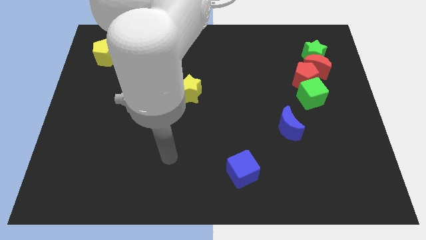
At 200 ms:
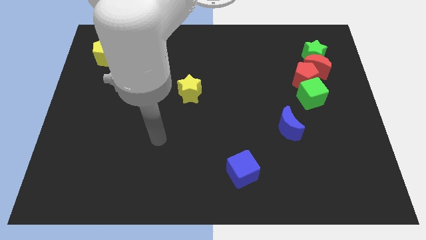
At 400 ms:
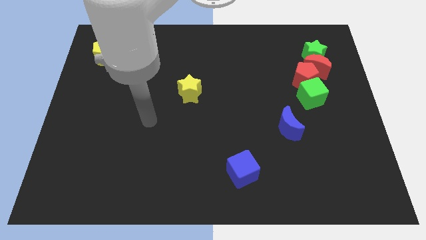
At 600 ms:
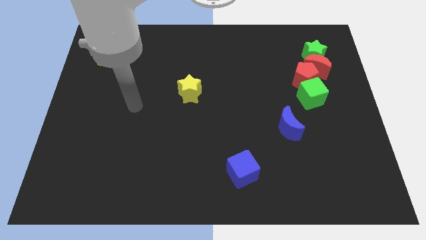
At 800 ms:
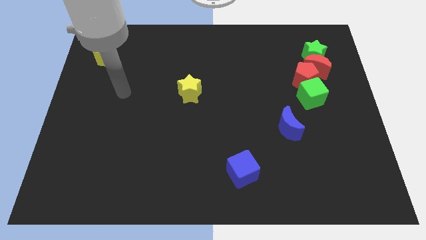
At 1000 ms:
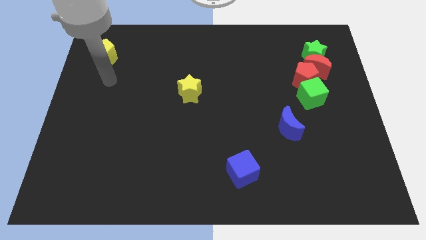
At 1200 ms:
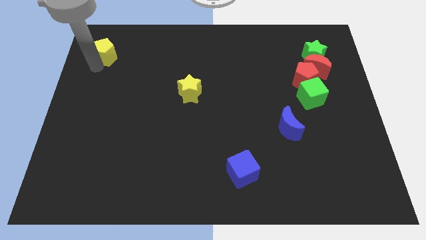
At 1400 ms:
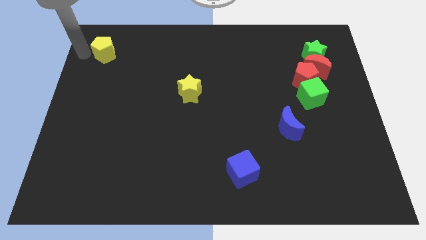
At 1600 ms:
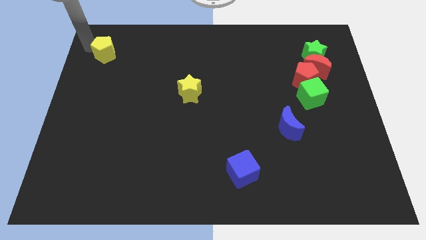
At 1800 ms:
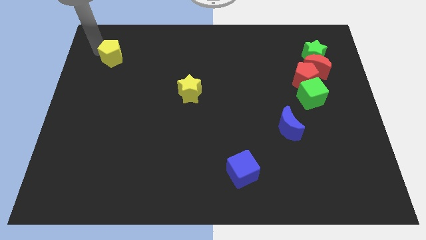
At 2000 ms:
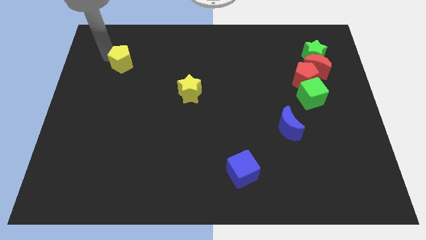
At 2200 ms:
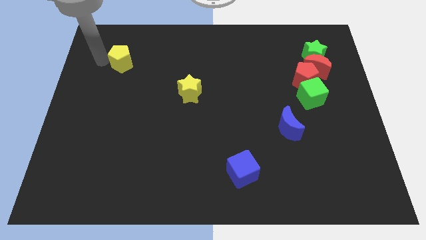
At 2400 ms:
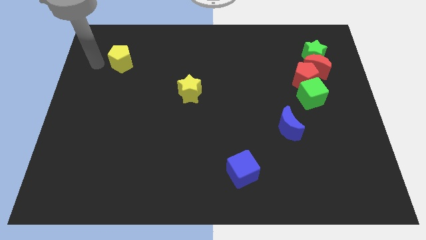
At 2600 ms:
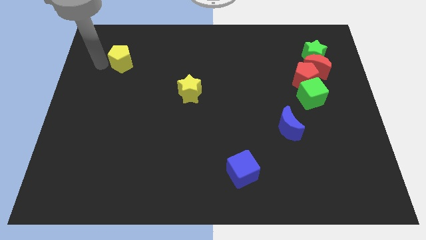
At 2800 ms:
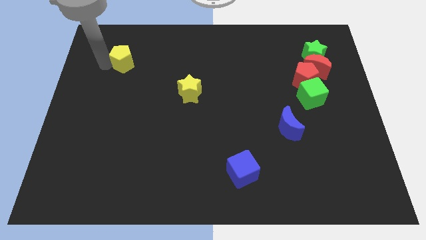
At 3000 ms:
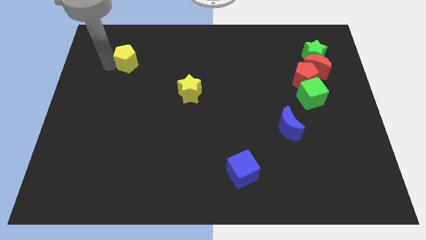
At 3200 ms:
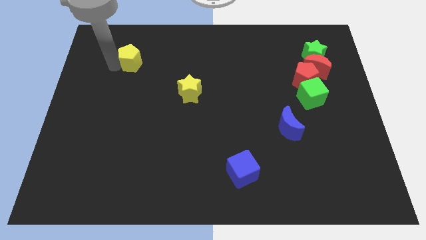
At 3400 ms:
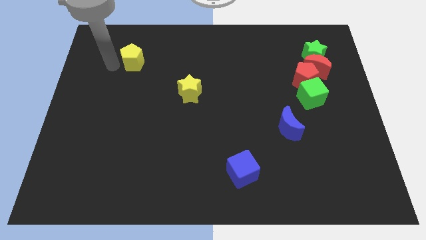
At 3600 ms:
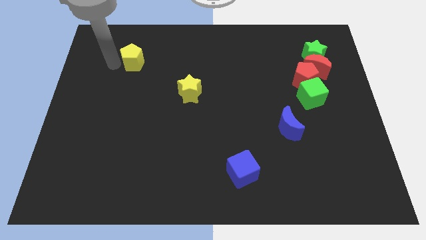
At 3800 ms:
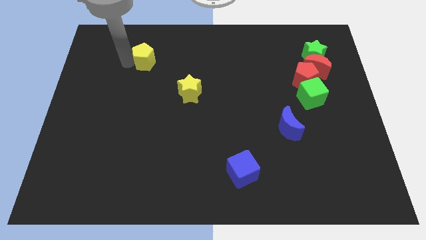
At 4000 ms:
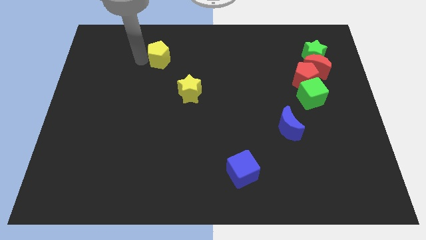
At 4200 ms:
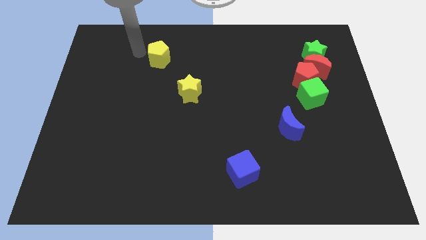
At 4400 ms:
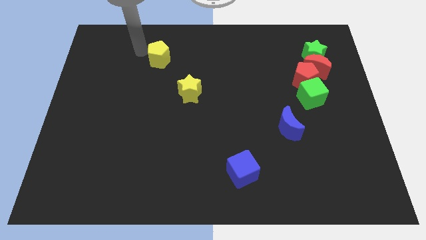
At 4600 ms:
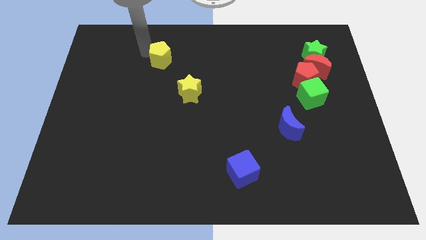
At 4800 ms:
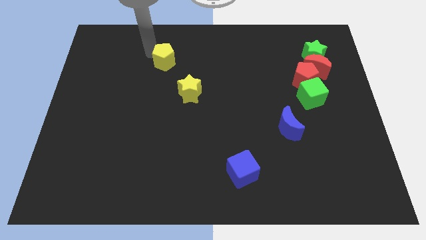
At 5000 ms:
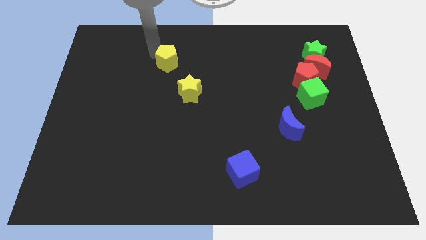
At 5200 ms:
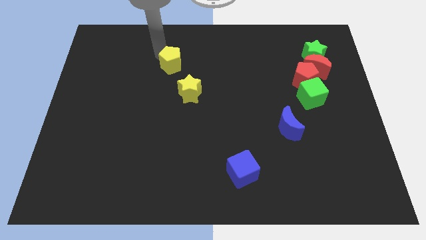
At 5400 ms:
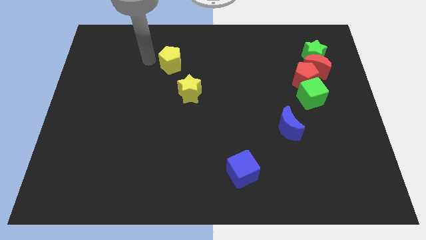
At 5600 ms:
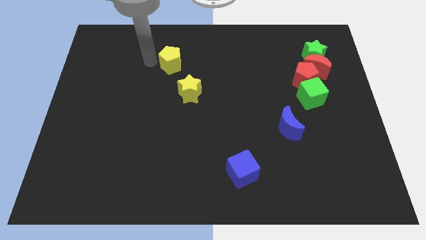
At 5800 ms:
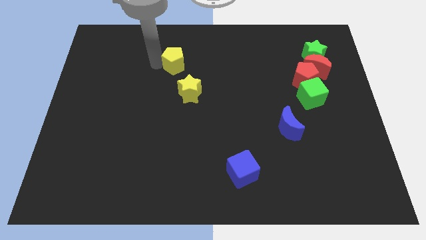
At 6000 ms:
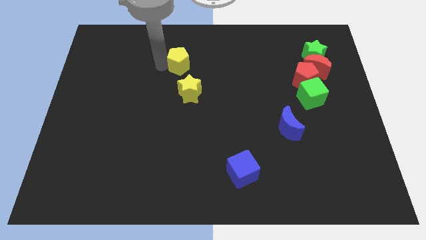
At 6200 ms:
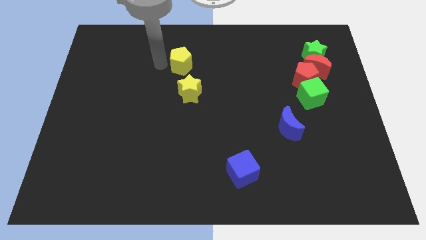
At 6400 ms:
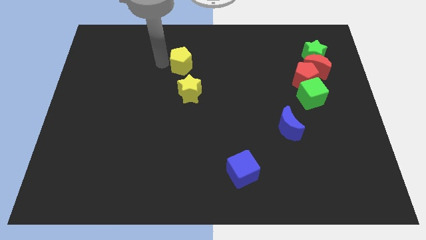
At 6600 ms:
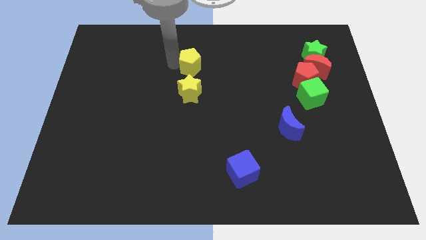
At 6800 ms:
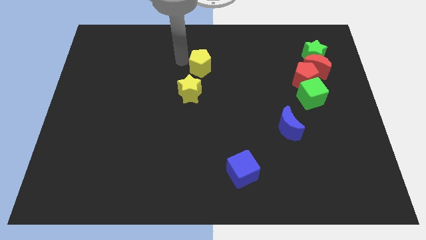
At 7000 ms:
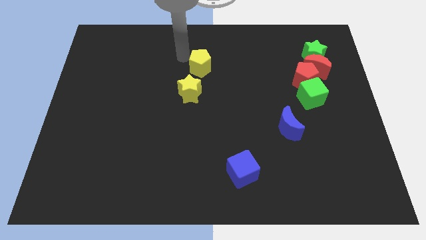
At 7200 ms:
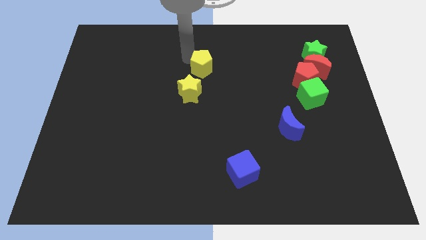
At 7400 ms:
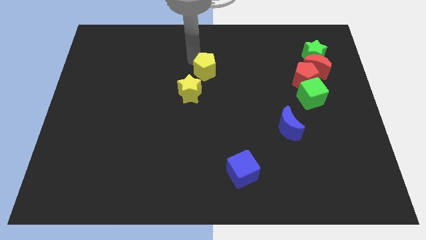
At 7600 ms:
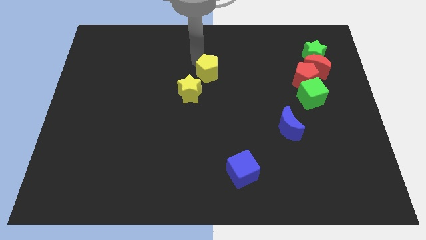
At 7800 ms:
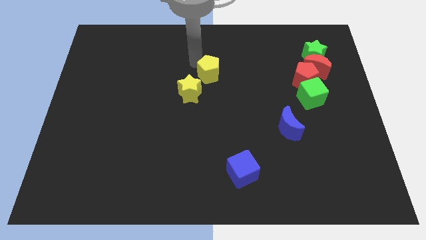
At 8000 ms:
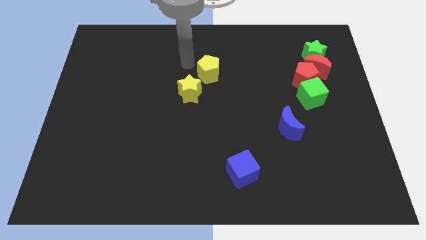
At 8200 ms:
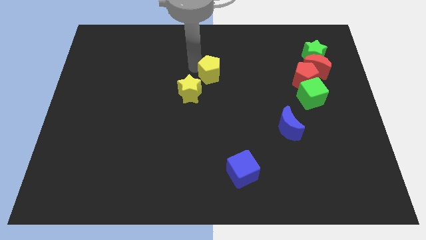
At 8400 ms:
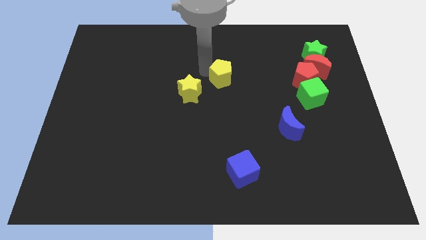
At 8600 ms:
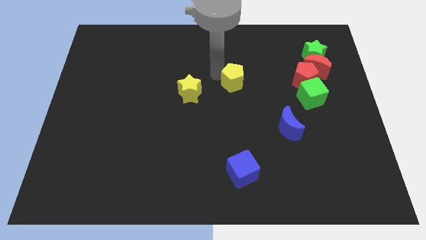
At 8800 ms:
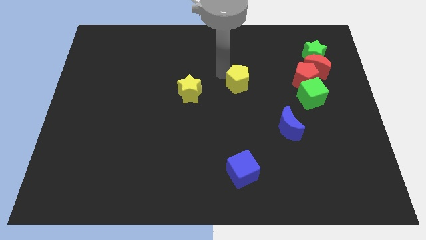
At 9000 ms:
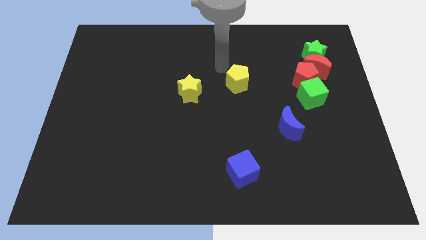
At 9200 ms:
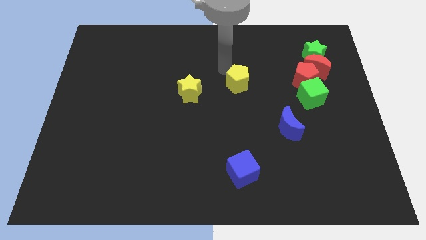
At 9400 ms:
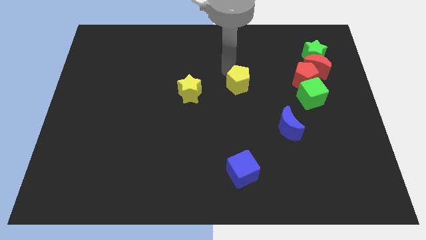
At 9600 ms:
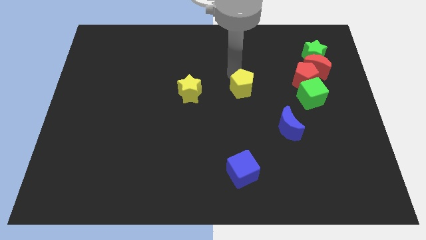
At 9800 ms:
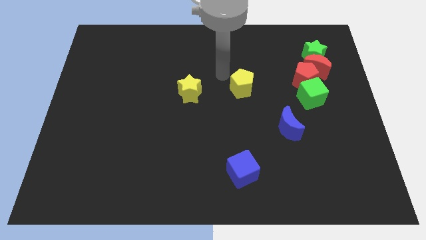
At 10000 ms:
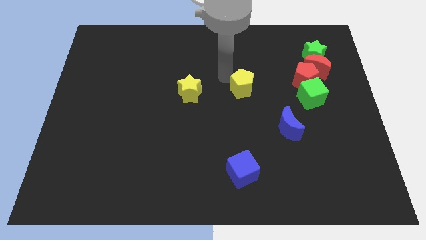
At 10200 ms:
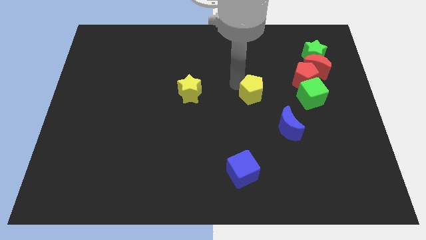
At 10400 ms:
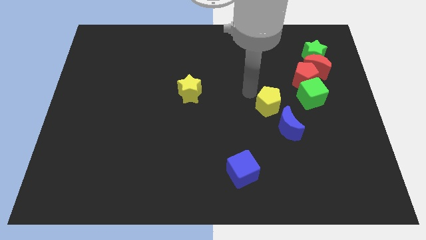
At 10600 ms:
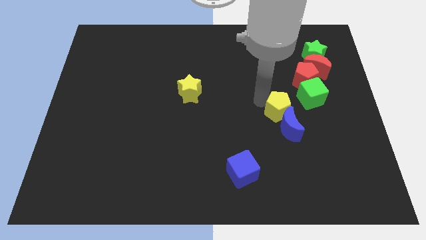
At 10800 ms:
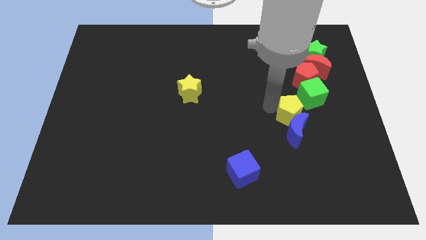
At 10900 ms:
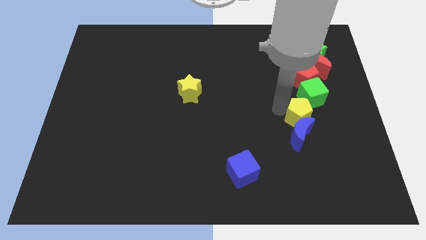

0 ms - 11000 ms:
move the yellow pentagon to the bottom side of the green cube

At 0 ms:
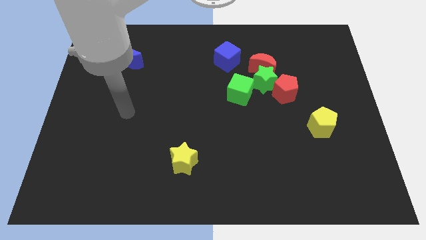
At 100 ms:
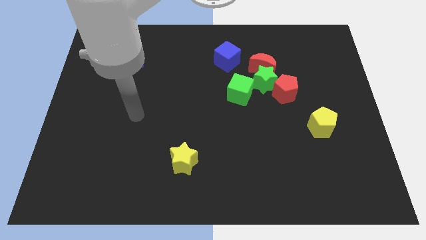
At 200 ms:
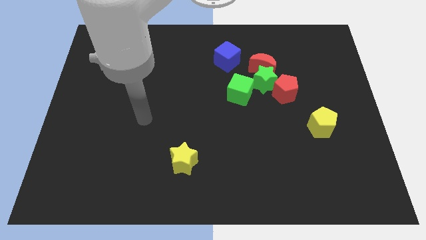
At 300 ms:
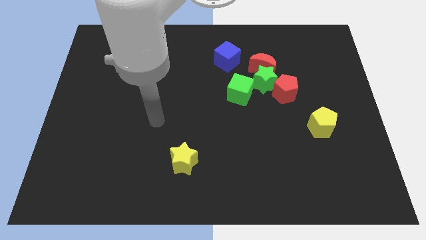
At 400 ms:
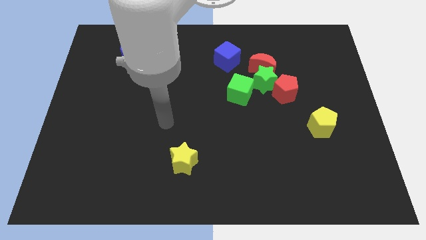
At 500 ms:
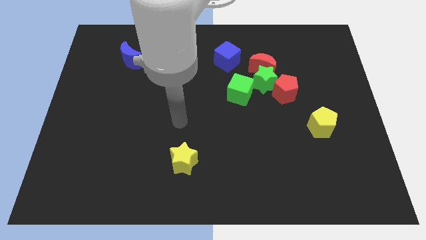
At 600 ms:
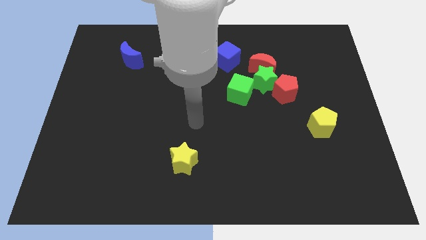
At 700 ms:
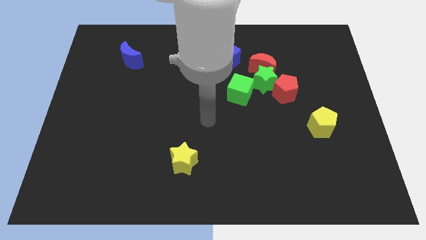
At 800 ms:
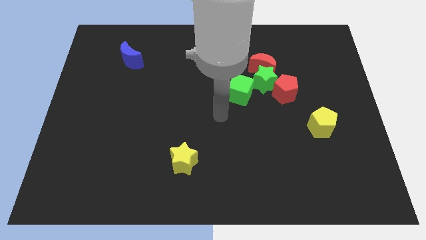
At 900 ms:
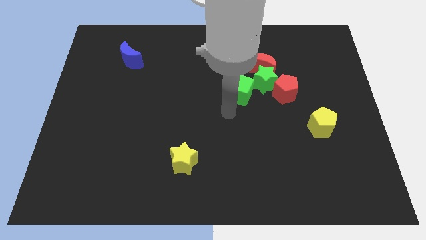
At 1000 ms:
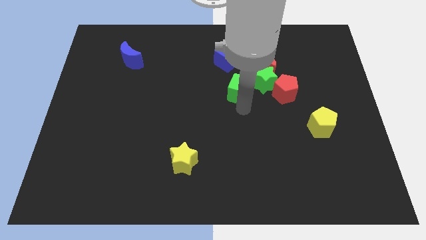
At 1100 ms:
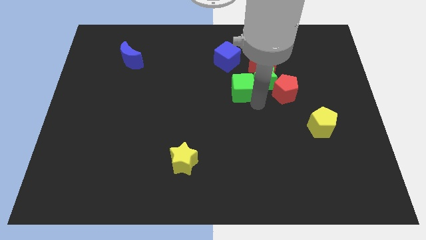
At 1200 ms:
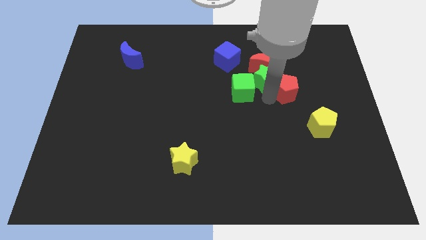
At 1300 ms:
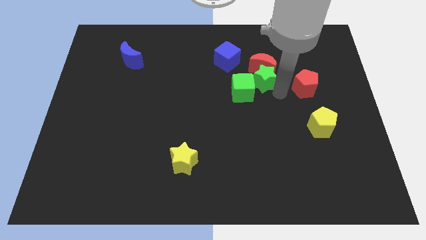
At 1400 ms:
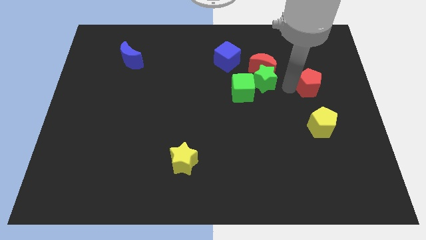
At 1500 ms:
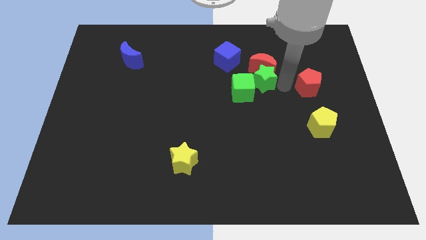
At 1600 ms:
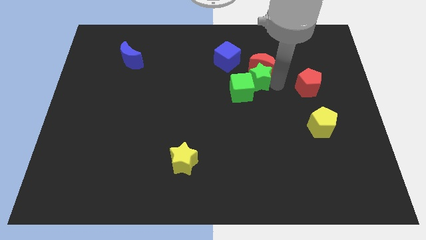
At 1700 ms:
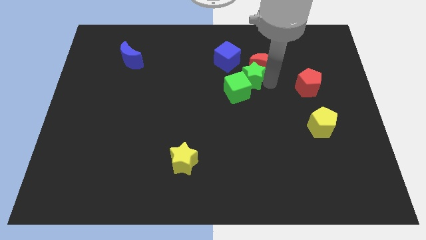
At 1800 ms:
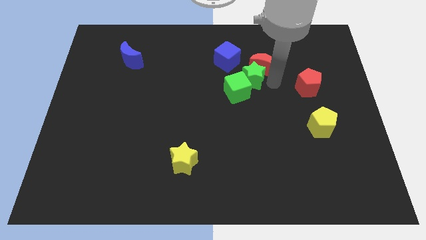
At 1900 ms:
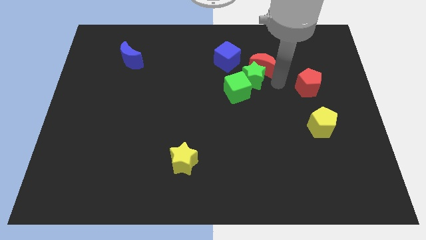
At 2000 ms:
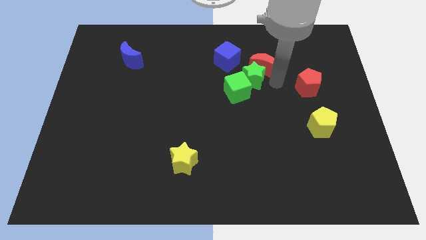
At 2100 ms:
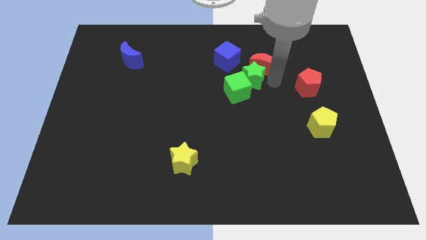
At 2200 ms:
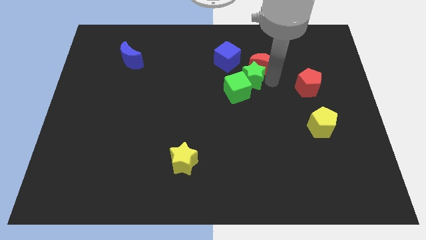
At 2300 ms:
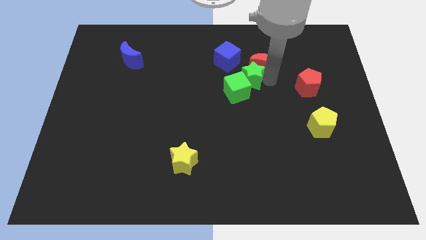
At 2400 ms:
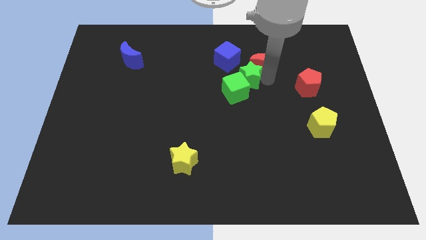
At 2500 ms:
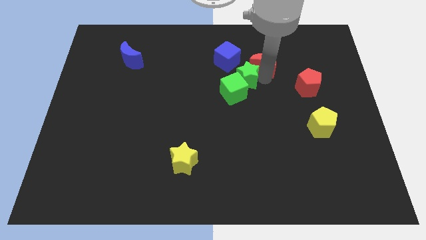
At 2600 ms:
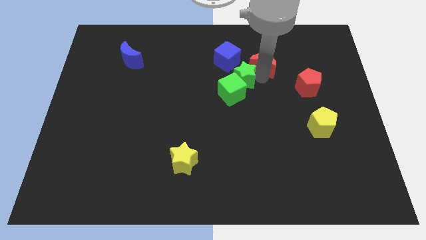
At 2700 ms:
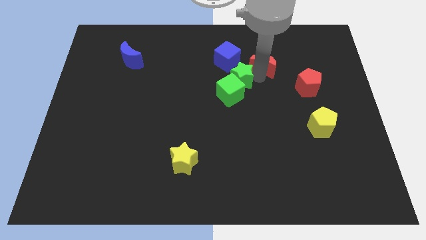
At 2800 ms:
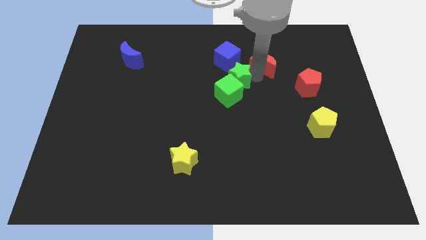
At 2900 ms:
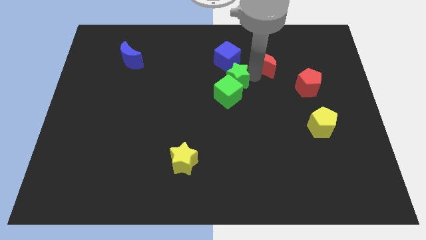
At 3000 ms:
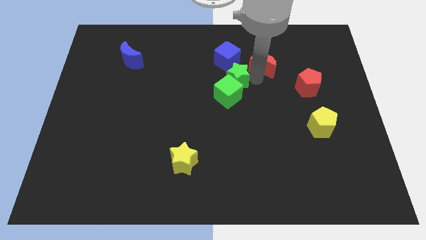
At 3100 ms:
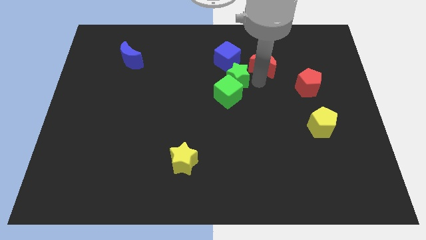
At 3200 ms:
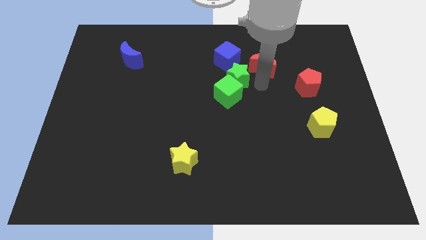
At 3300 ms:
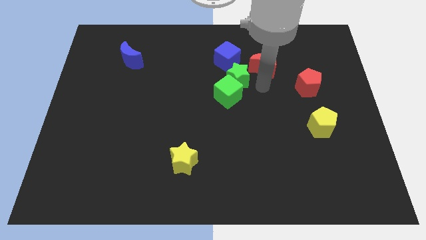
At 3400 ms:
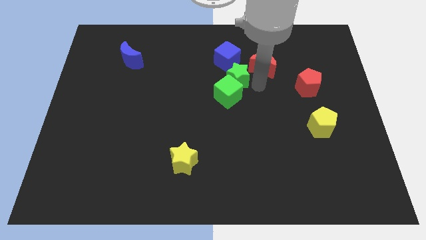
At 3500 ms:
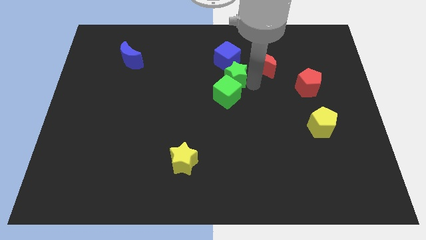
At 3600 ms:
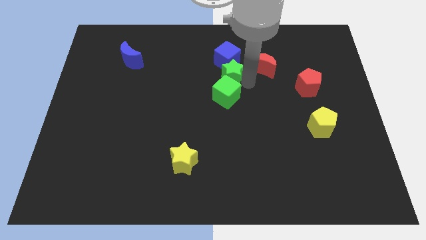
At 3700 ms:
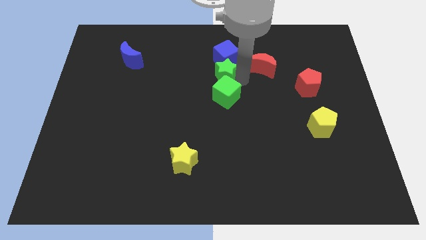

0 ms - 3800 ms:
slide the green star to the bottom left side of the blue cube
